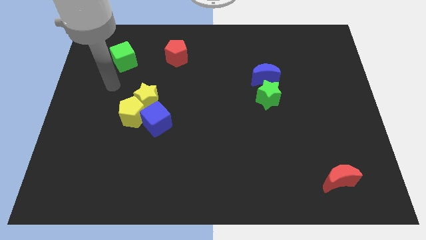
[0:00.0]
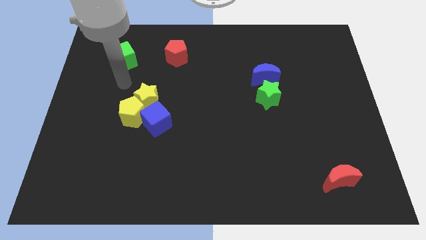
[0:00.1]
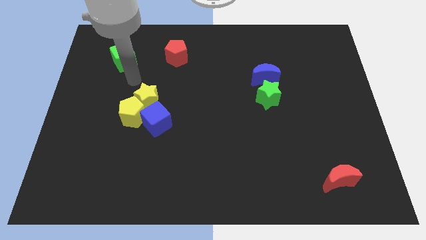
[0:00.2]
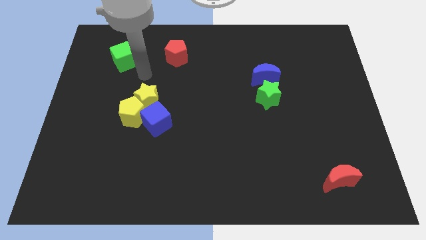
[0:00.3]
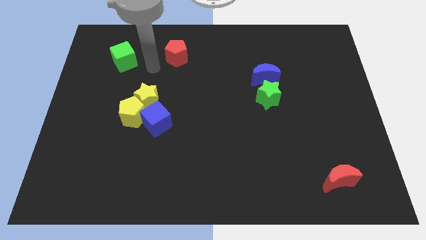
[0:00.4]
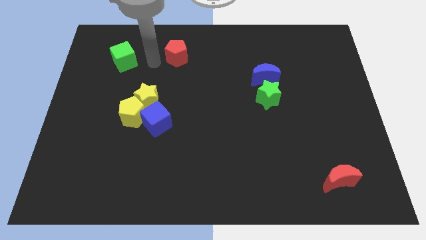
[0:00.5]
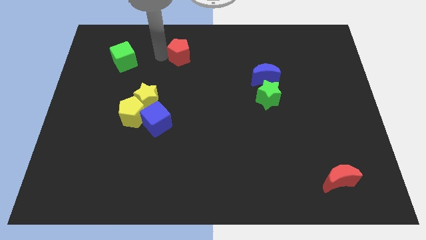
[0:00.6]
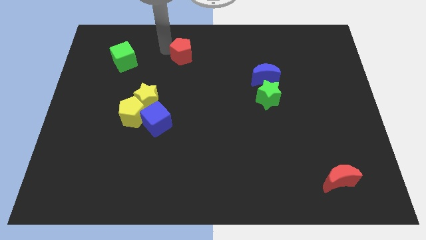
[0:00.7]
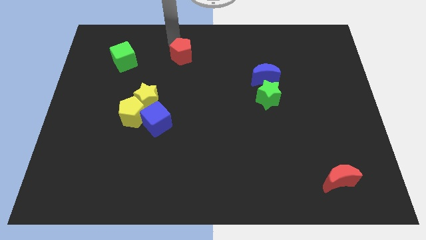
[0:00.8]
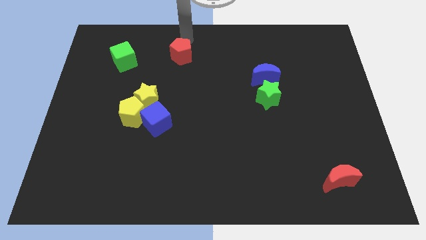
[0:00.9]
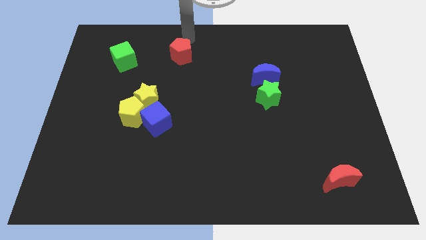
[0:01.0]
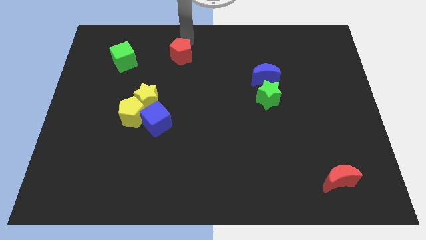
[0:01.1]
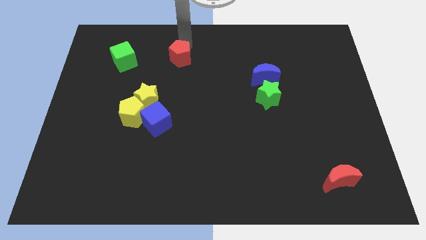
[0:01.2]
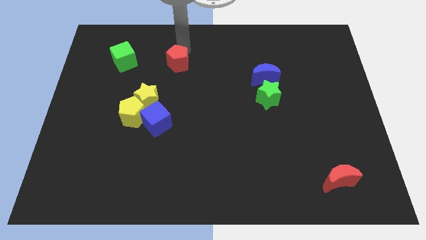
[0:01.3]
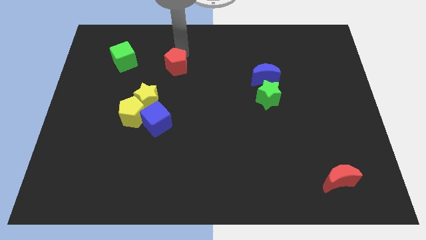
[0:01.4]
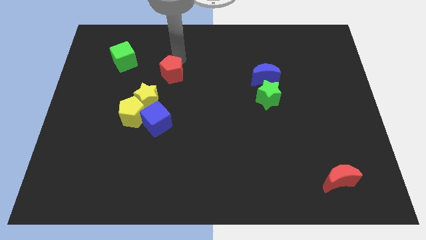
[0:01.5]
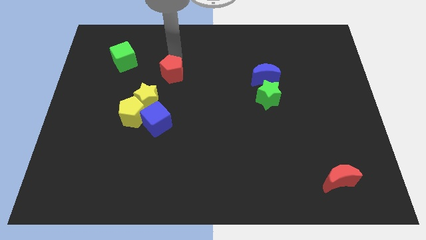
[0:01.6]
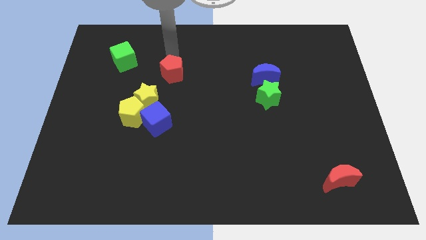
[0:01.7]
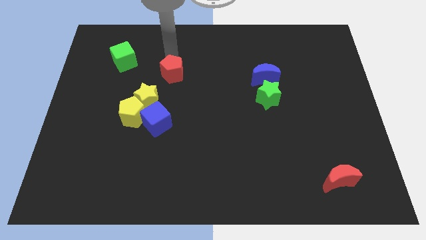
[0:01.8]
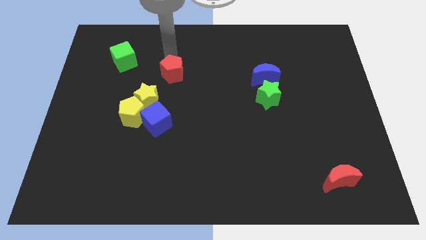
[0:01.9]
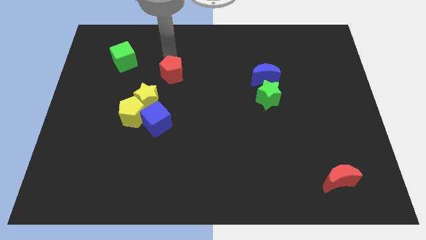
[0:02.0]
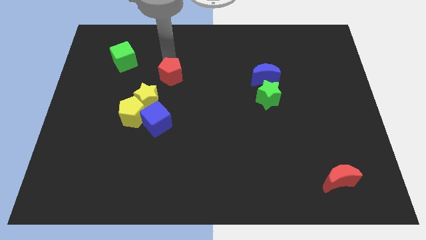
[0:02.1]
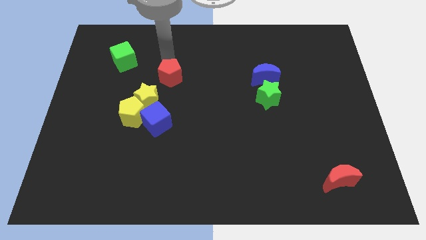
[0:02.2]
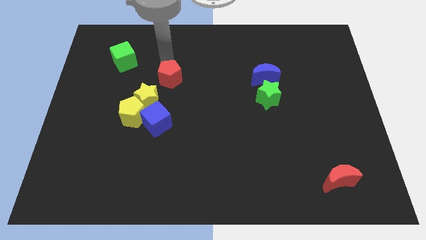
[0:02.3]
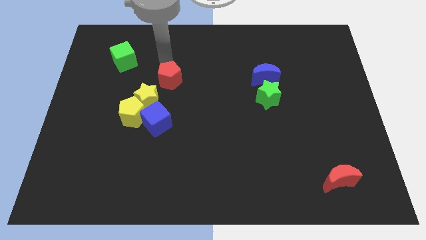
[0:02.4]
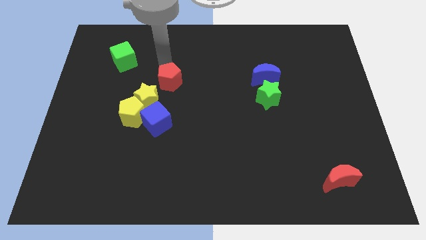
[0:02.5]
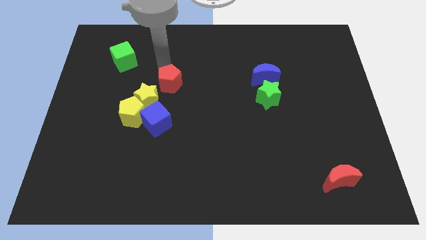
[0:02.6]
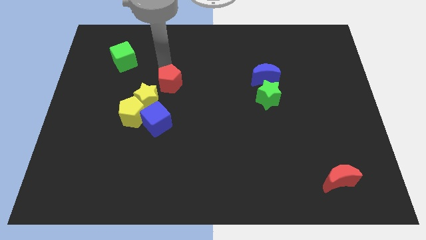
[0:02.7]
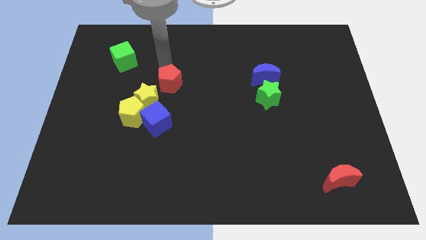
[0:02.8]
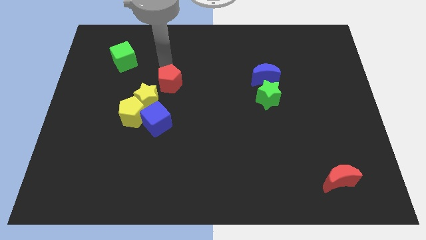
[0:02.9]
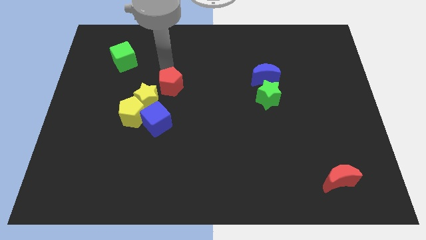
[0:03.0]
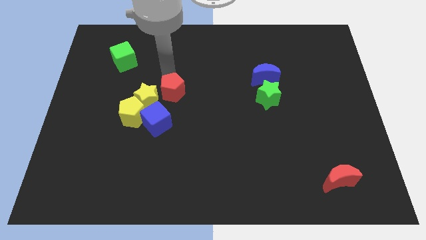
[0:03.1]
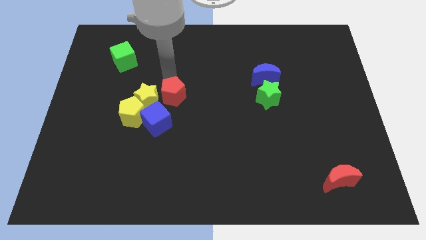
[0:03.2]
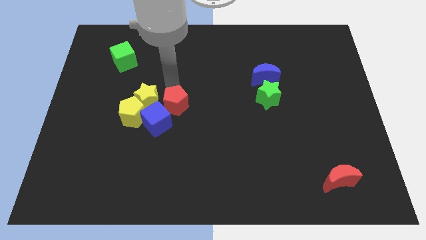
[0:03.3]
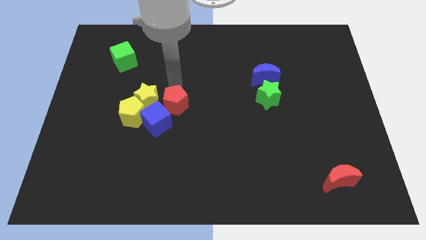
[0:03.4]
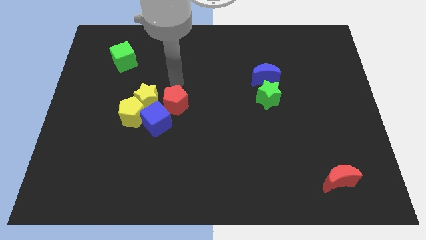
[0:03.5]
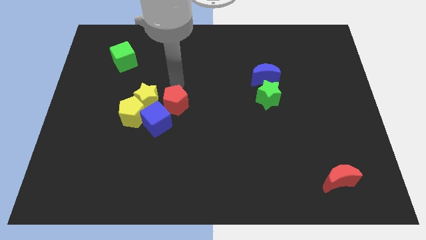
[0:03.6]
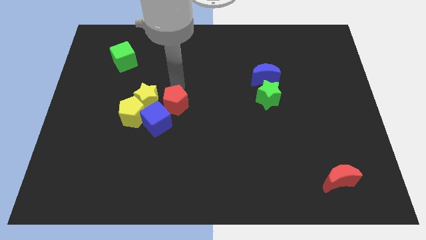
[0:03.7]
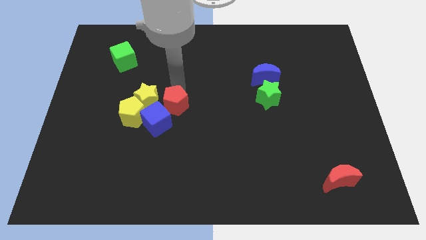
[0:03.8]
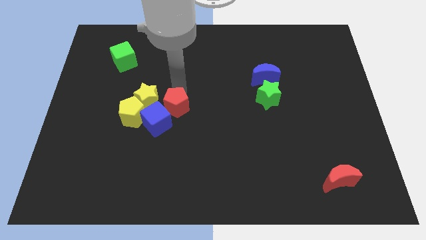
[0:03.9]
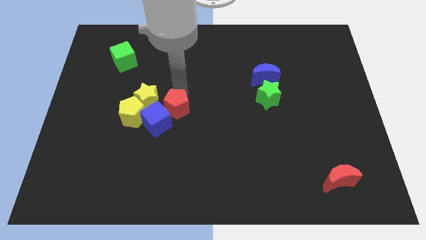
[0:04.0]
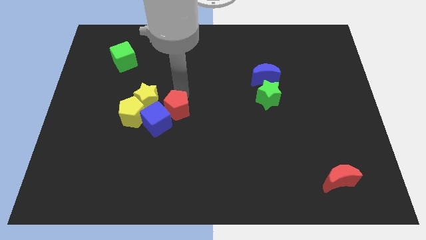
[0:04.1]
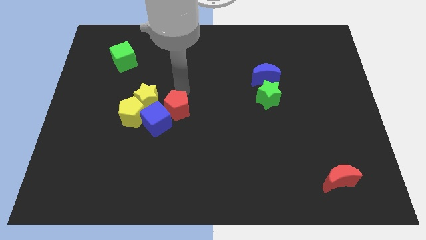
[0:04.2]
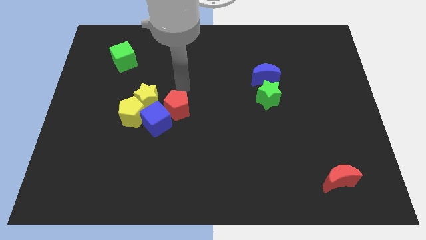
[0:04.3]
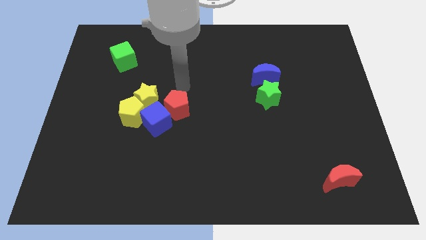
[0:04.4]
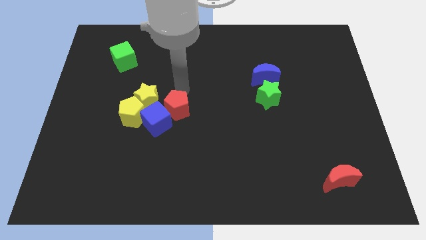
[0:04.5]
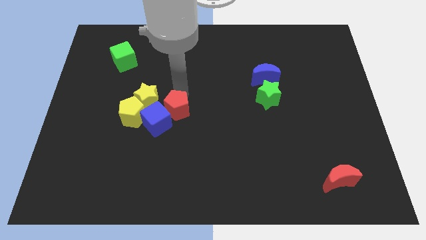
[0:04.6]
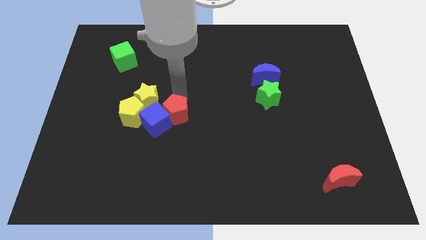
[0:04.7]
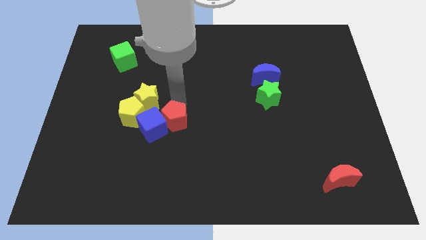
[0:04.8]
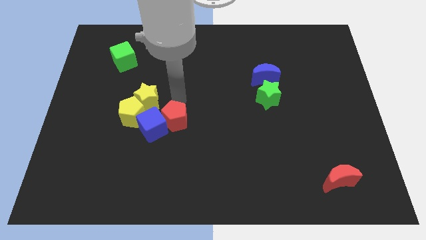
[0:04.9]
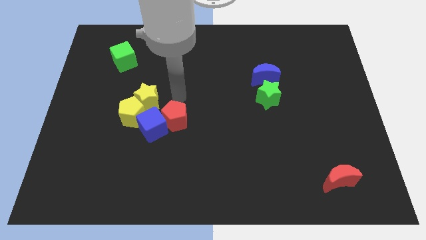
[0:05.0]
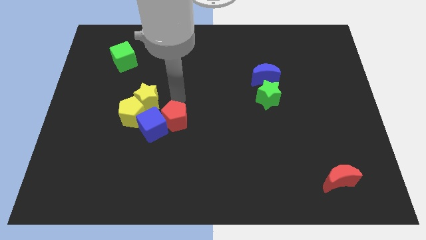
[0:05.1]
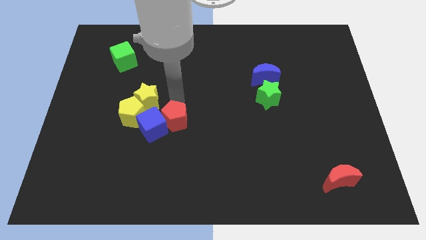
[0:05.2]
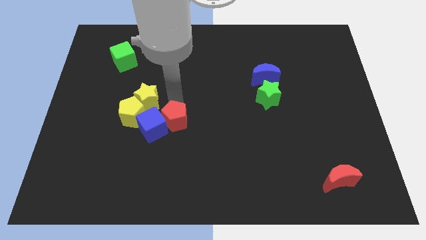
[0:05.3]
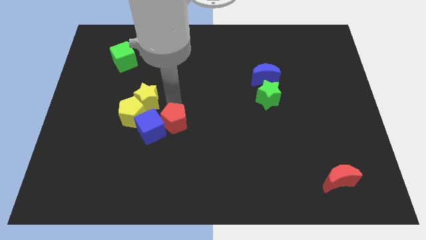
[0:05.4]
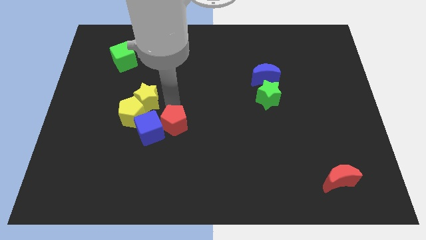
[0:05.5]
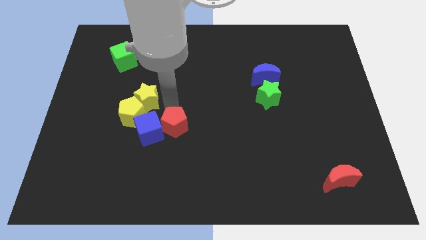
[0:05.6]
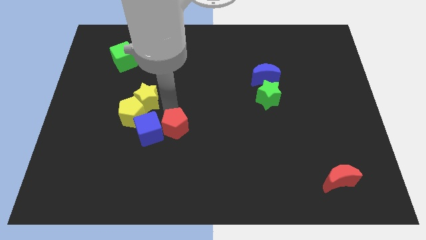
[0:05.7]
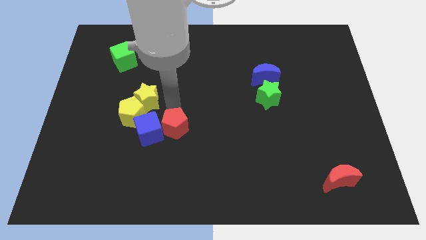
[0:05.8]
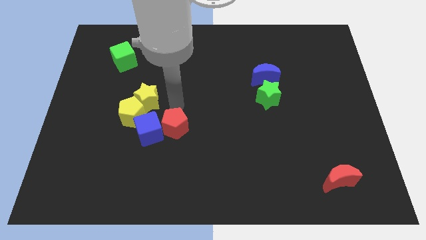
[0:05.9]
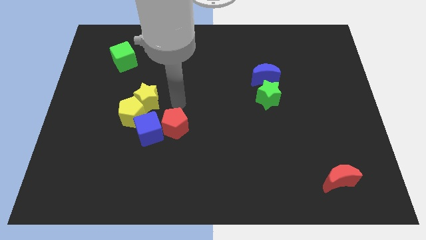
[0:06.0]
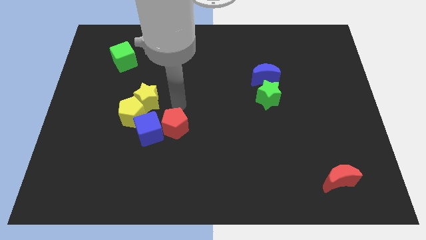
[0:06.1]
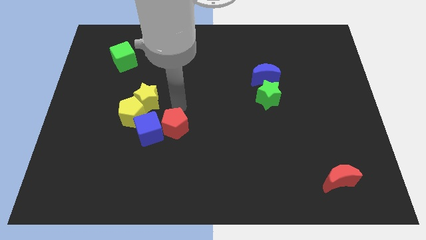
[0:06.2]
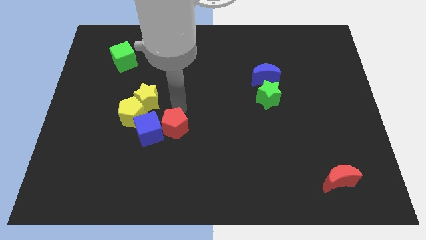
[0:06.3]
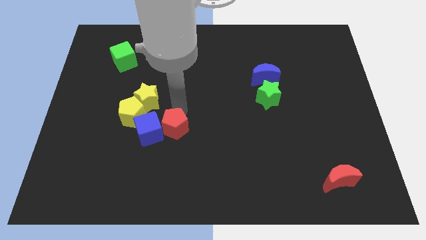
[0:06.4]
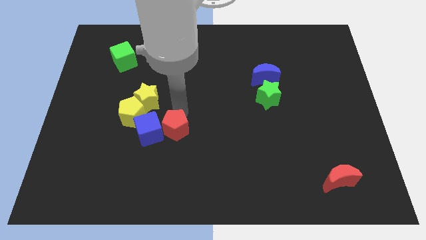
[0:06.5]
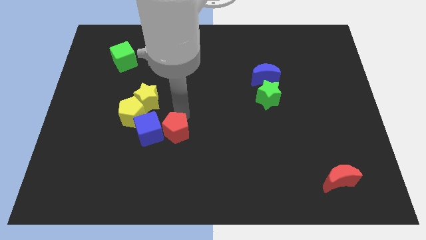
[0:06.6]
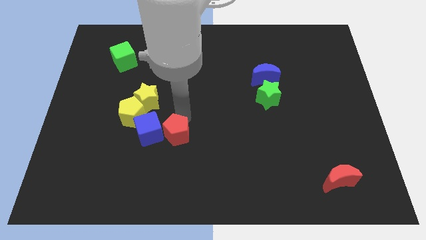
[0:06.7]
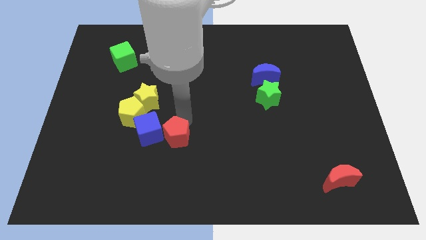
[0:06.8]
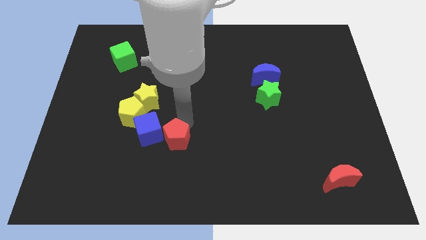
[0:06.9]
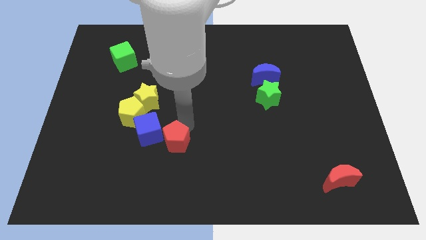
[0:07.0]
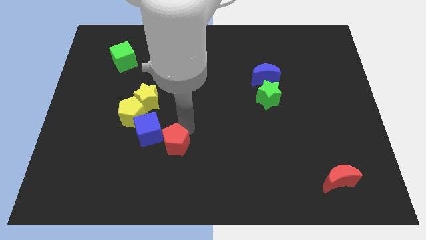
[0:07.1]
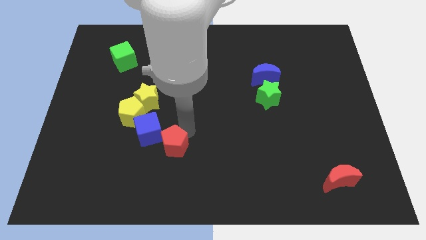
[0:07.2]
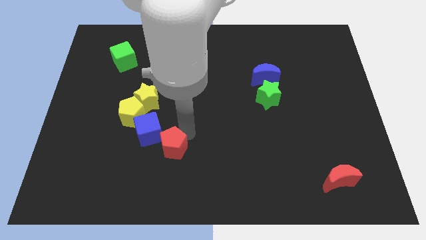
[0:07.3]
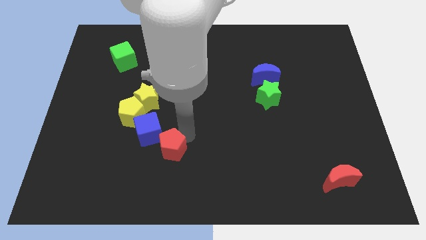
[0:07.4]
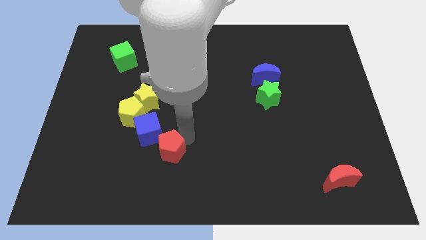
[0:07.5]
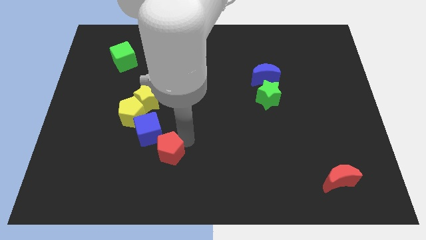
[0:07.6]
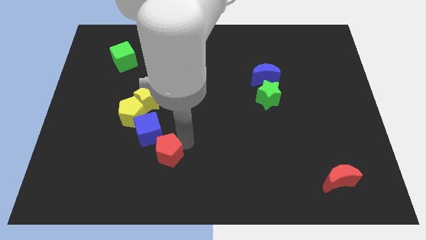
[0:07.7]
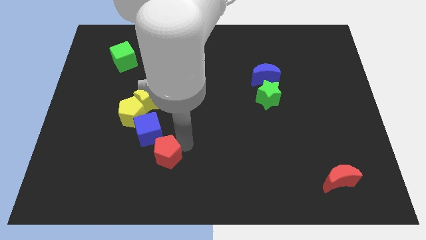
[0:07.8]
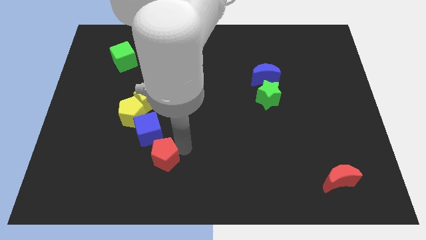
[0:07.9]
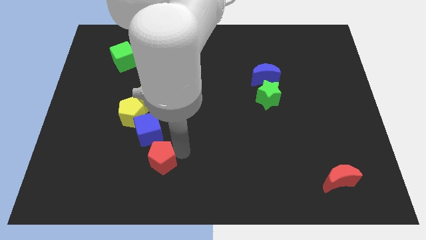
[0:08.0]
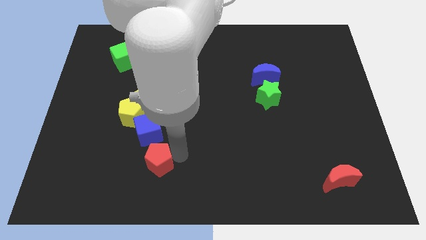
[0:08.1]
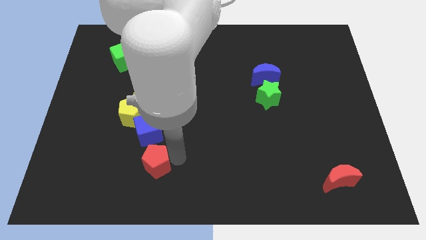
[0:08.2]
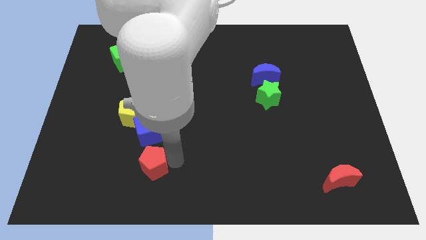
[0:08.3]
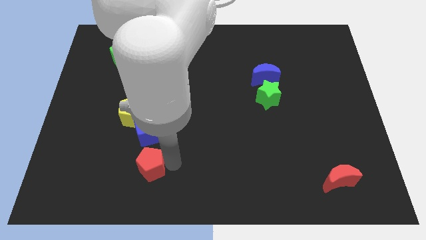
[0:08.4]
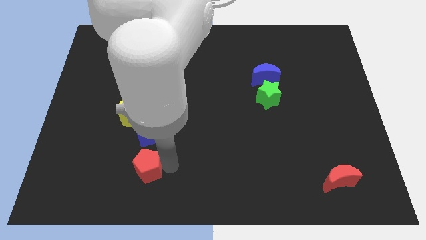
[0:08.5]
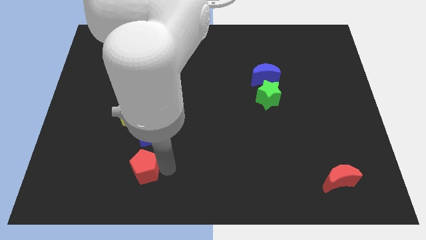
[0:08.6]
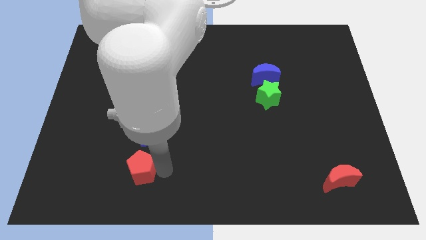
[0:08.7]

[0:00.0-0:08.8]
slide the red pentagon below the yellow pentagon
